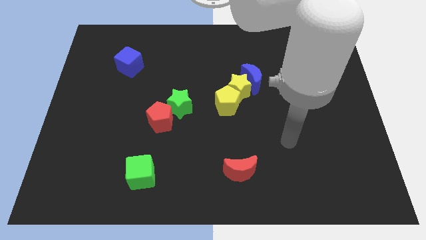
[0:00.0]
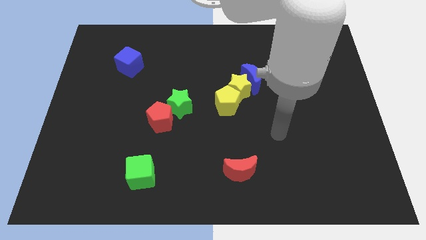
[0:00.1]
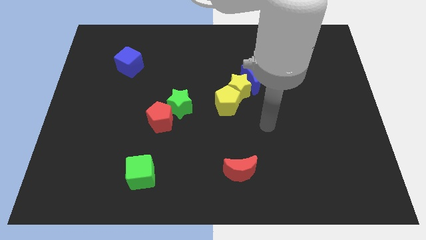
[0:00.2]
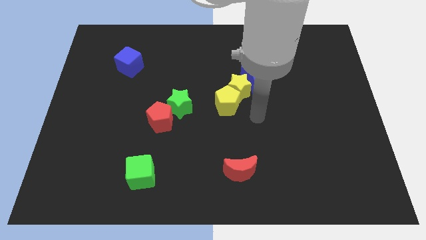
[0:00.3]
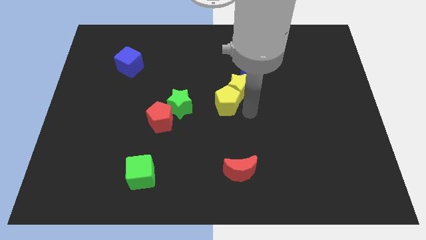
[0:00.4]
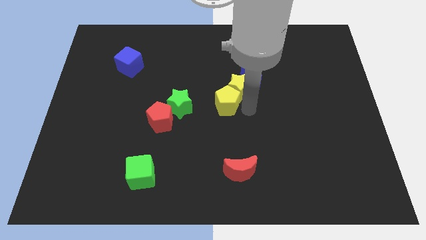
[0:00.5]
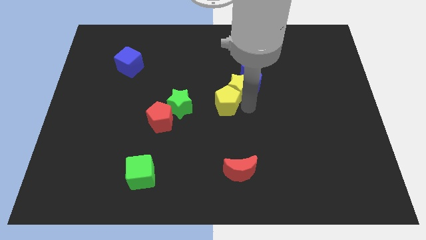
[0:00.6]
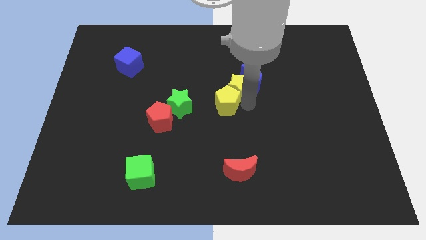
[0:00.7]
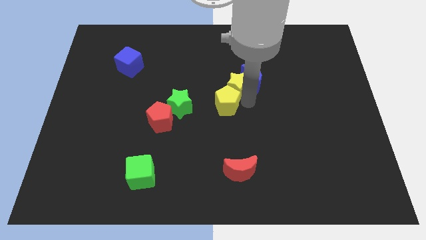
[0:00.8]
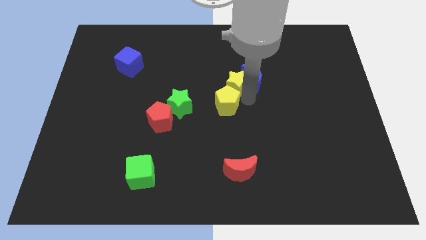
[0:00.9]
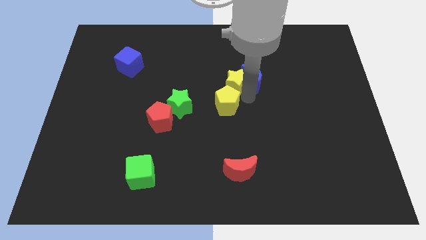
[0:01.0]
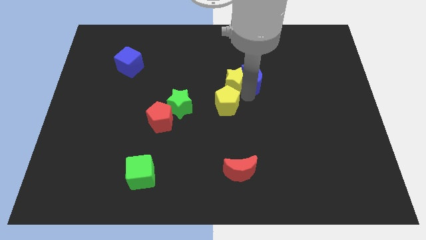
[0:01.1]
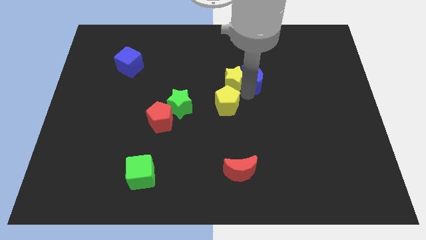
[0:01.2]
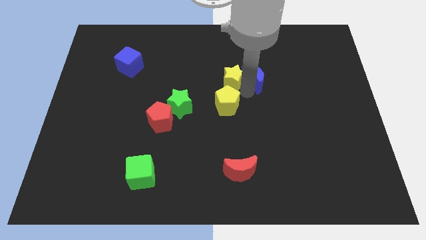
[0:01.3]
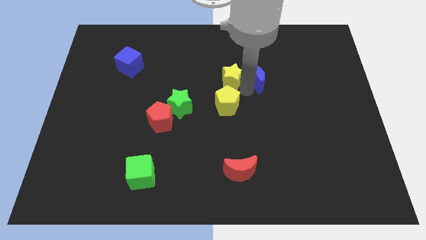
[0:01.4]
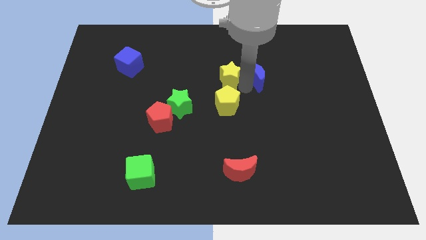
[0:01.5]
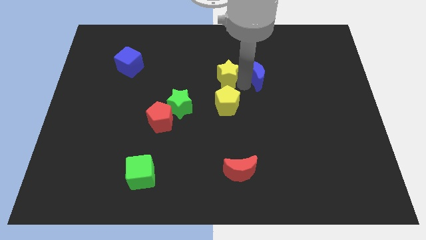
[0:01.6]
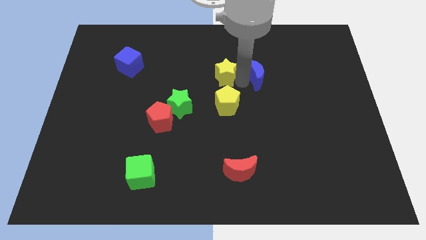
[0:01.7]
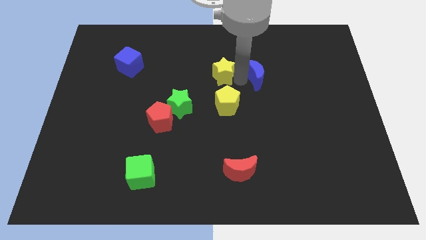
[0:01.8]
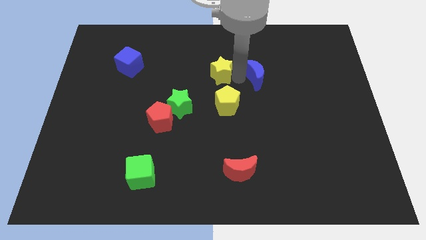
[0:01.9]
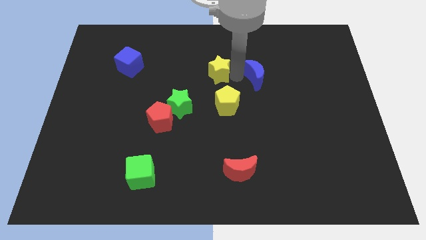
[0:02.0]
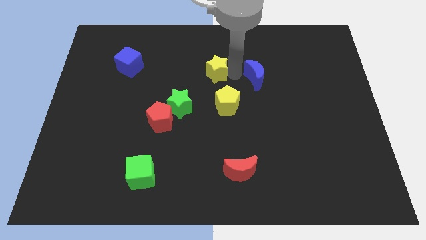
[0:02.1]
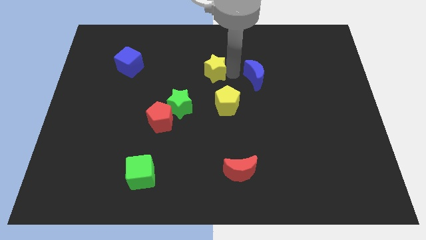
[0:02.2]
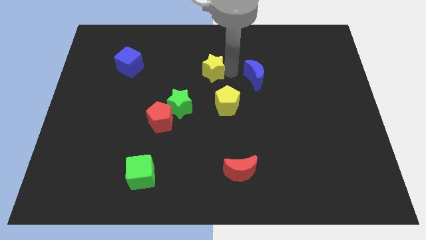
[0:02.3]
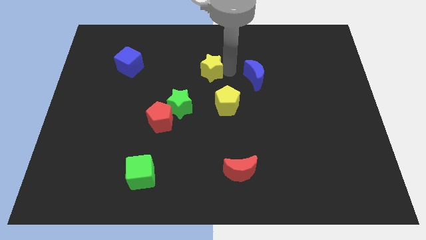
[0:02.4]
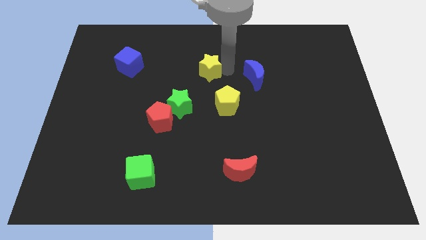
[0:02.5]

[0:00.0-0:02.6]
pull the yellow star apart from the blue moon and yellow pentagon

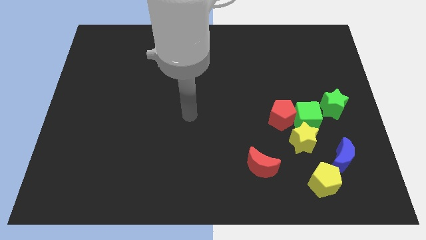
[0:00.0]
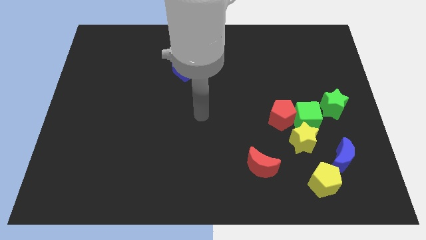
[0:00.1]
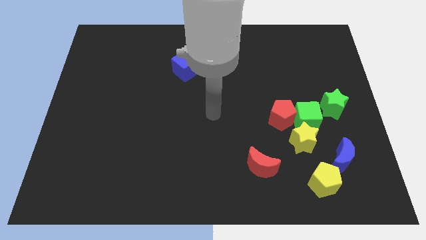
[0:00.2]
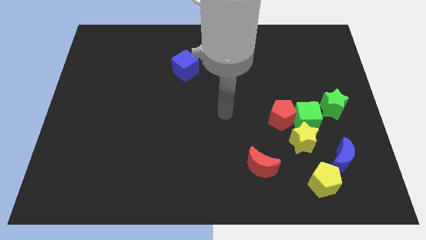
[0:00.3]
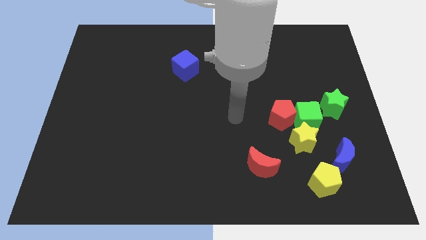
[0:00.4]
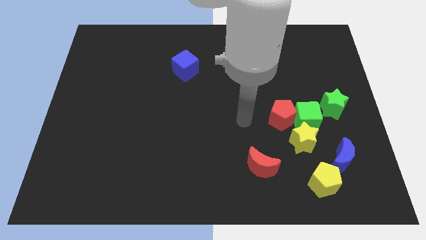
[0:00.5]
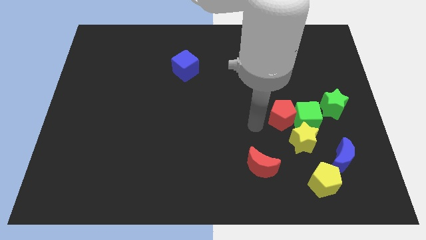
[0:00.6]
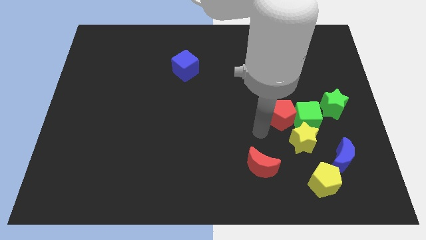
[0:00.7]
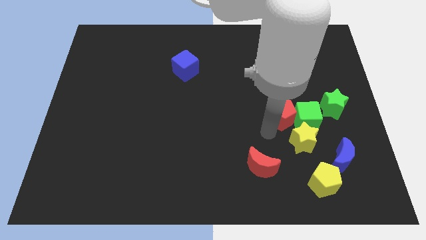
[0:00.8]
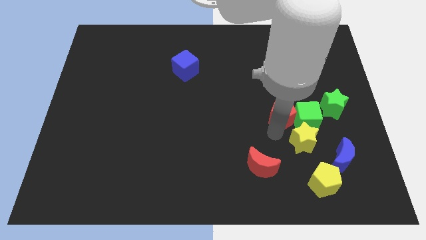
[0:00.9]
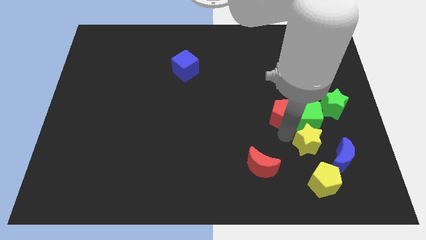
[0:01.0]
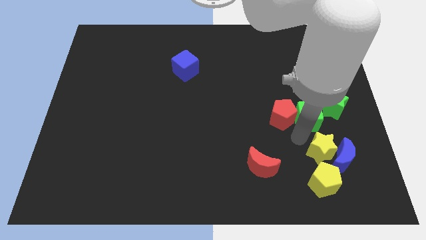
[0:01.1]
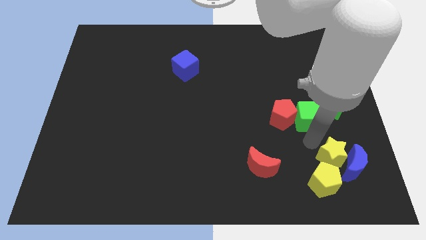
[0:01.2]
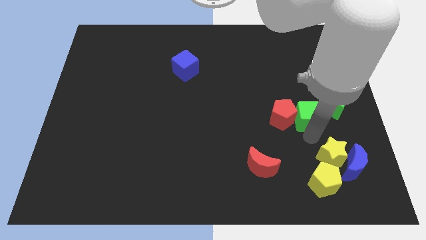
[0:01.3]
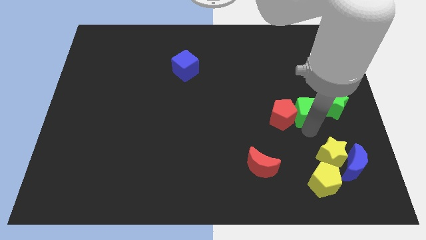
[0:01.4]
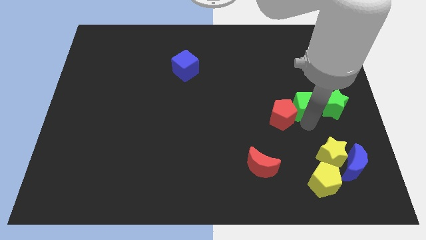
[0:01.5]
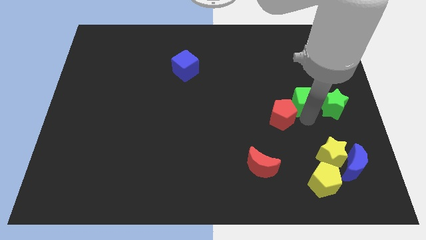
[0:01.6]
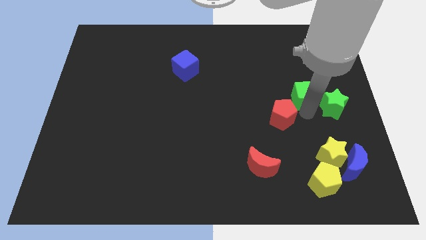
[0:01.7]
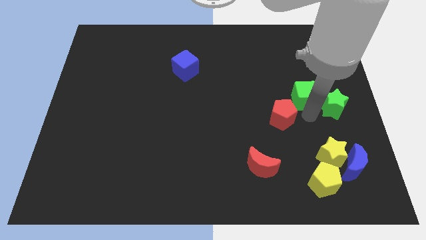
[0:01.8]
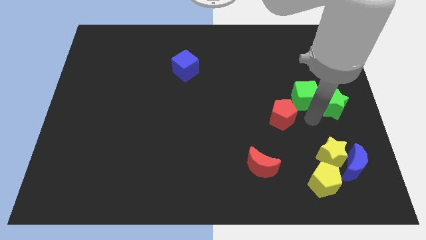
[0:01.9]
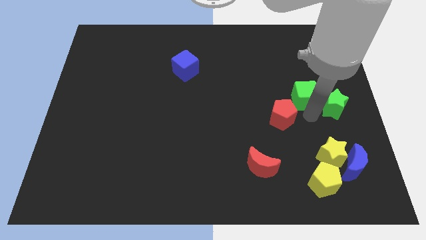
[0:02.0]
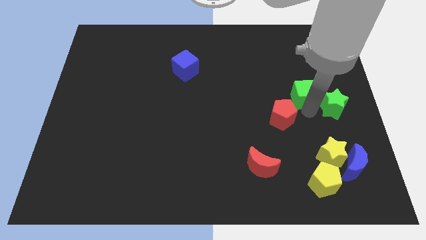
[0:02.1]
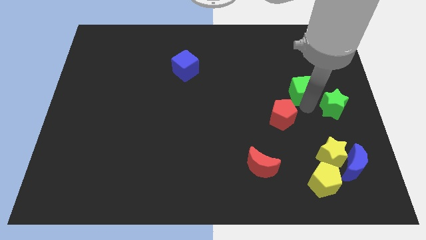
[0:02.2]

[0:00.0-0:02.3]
separate the green cube from the red pentagon, yellow star, and green star

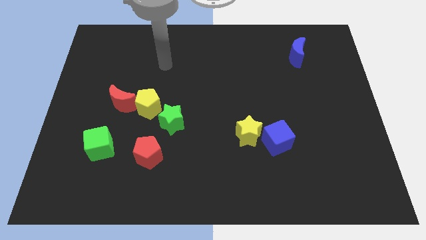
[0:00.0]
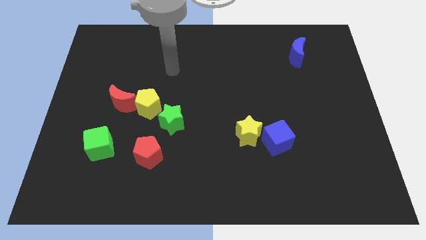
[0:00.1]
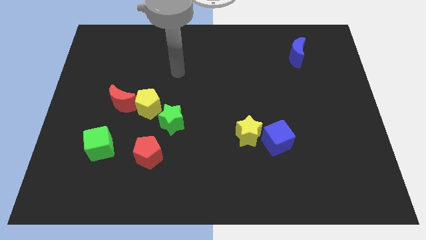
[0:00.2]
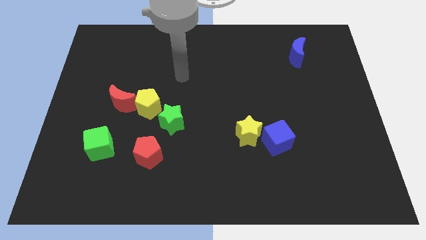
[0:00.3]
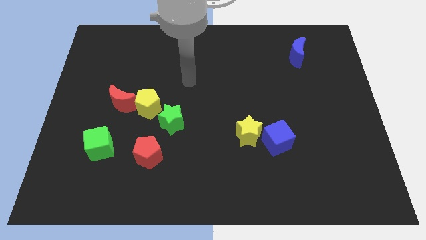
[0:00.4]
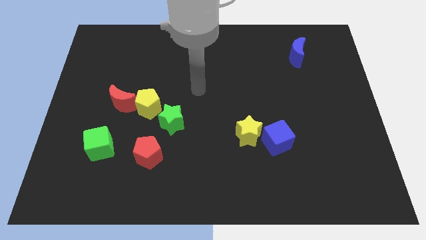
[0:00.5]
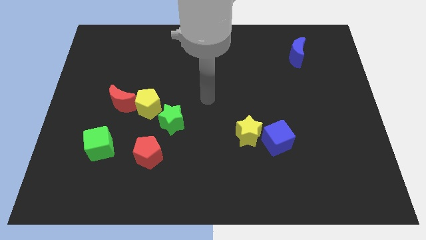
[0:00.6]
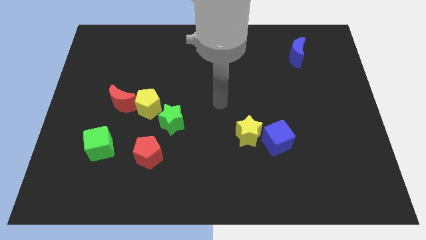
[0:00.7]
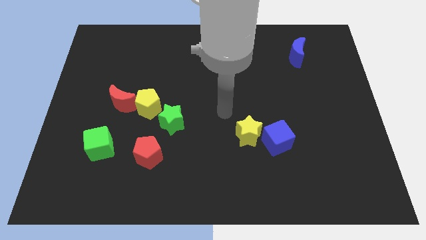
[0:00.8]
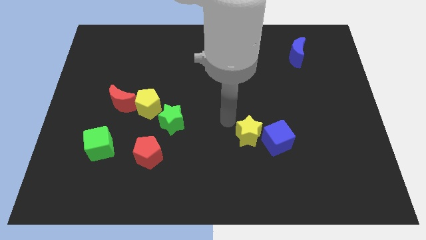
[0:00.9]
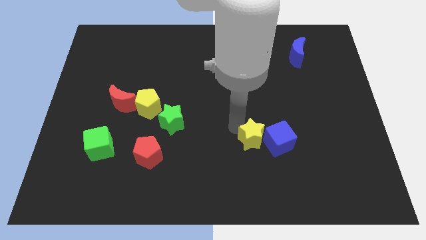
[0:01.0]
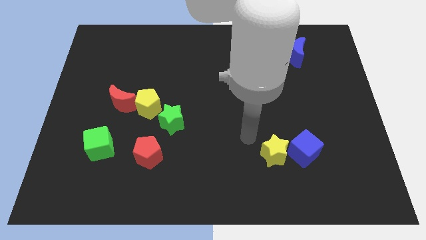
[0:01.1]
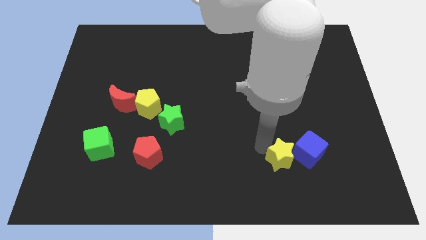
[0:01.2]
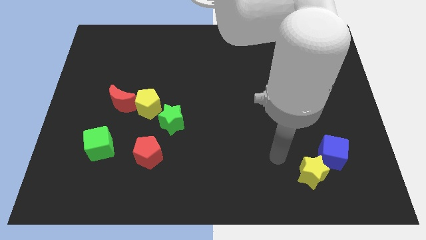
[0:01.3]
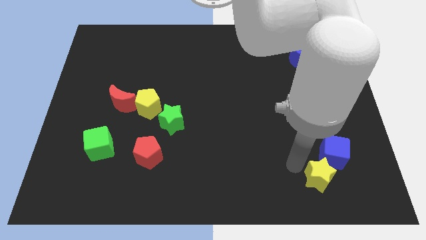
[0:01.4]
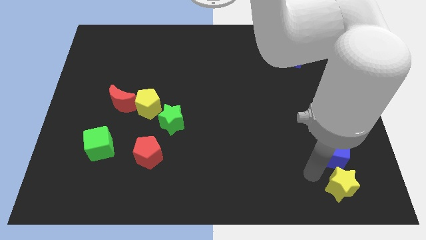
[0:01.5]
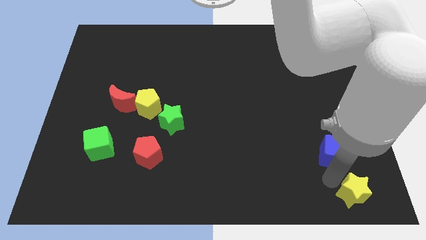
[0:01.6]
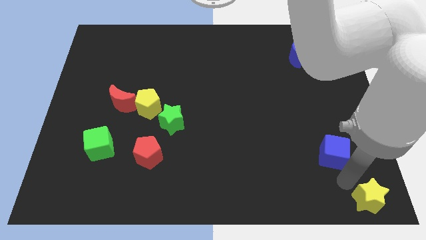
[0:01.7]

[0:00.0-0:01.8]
separate the blue cube from the yellow star

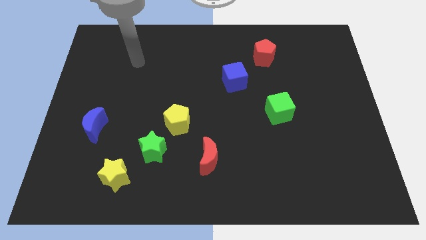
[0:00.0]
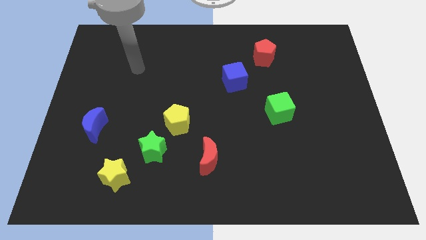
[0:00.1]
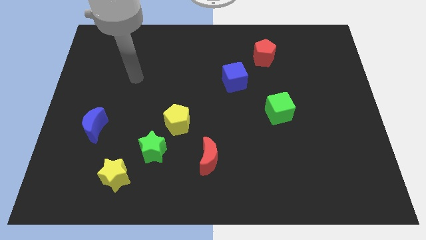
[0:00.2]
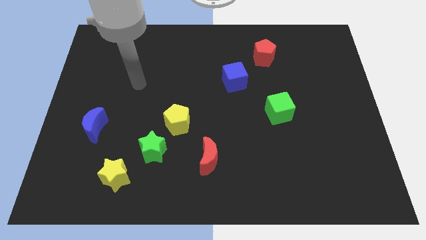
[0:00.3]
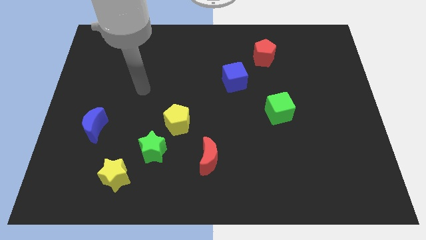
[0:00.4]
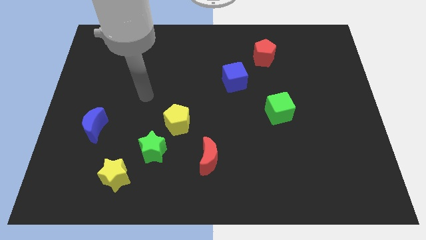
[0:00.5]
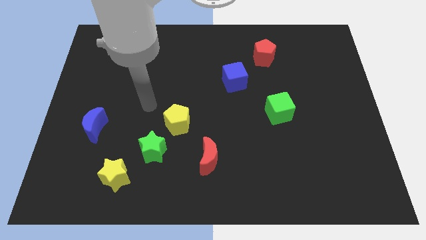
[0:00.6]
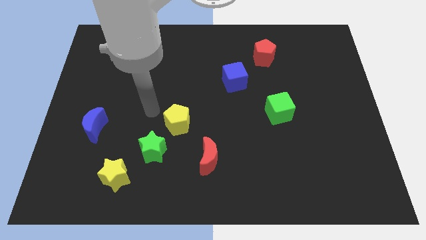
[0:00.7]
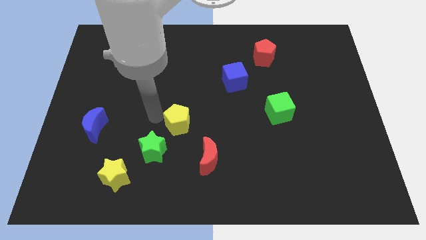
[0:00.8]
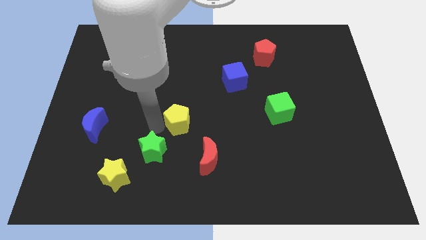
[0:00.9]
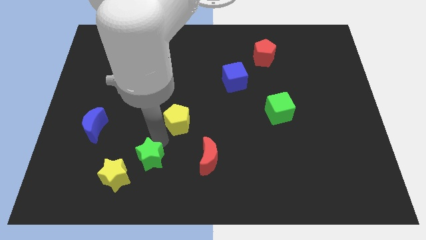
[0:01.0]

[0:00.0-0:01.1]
pull the yellow pentagon apart from the green star

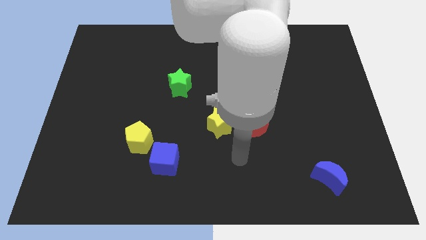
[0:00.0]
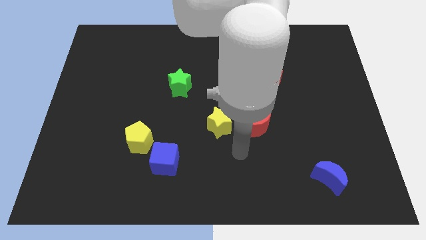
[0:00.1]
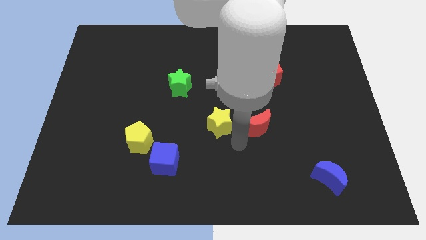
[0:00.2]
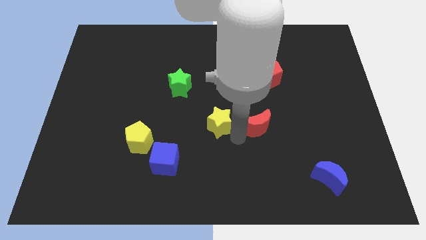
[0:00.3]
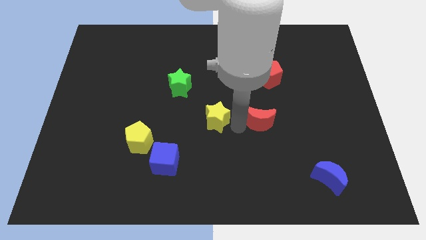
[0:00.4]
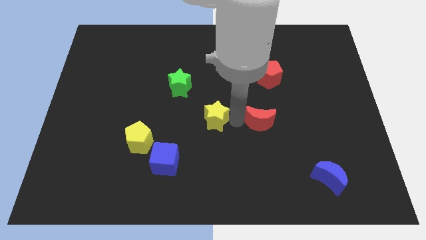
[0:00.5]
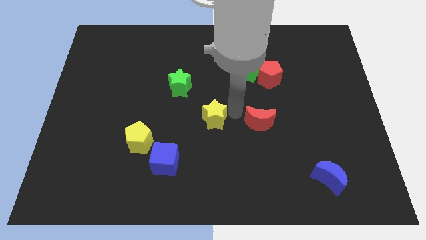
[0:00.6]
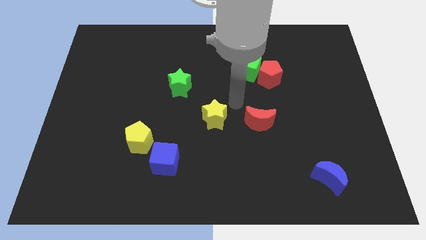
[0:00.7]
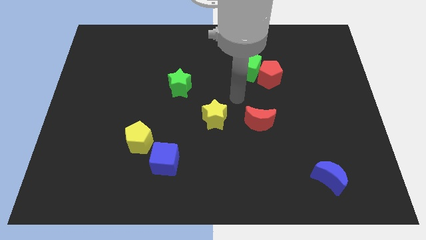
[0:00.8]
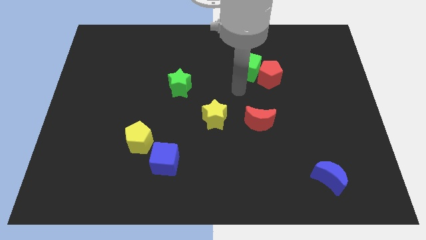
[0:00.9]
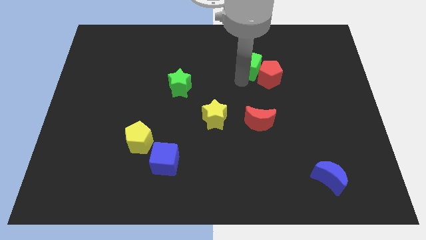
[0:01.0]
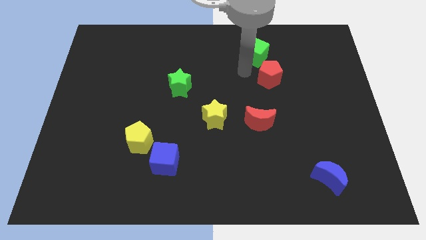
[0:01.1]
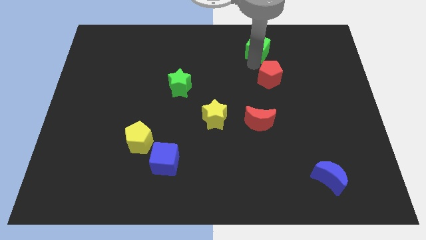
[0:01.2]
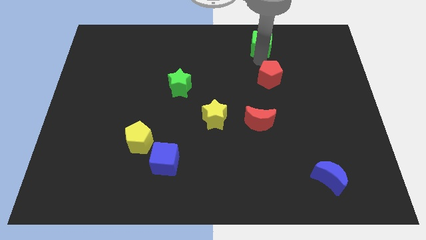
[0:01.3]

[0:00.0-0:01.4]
pull the red pentagon apart from the green cube

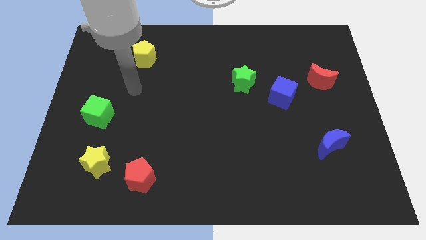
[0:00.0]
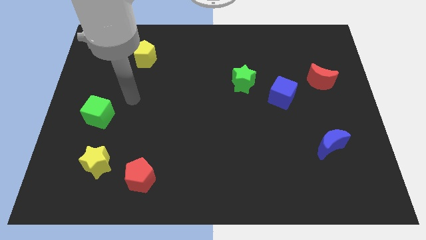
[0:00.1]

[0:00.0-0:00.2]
pull the red pentagon apart from the yellow star
